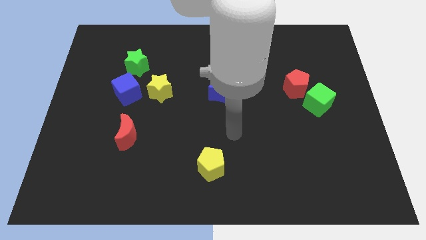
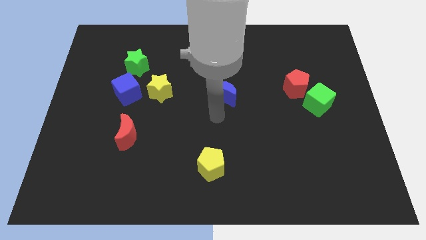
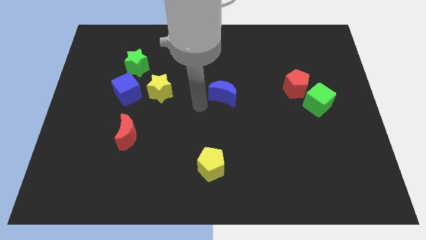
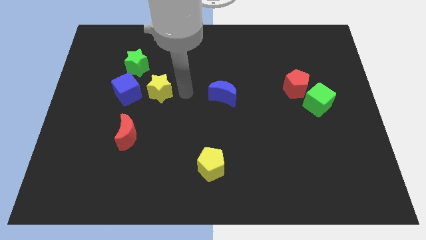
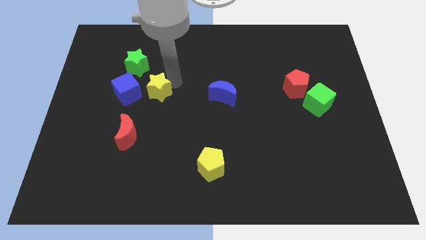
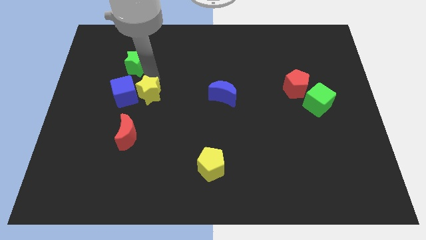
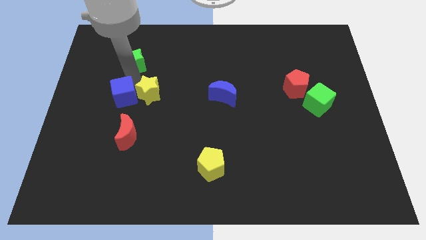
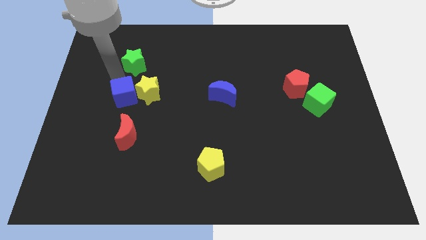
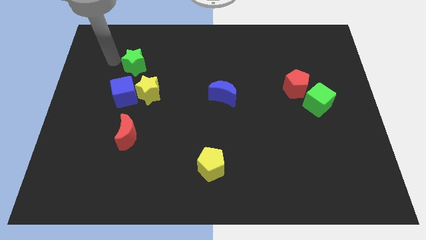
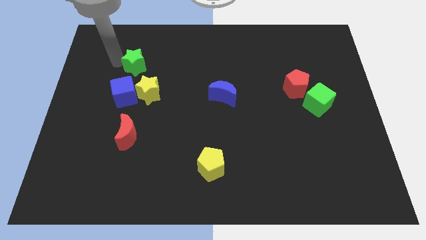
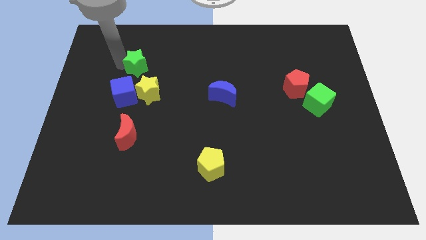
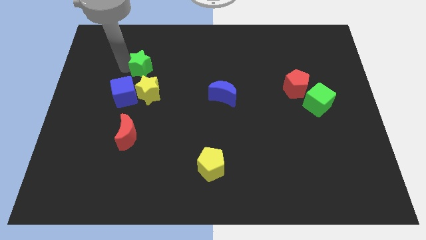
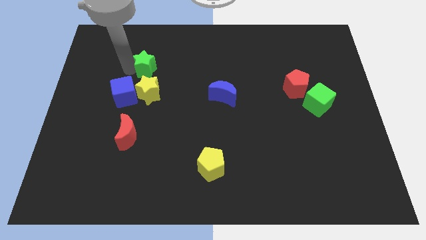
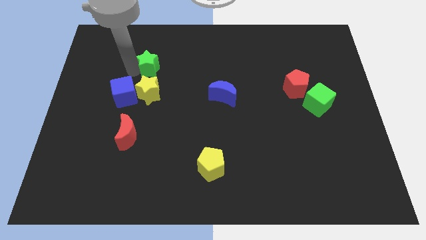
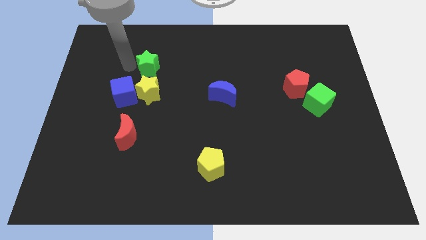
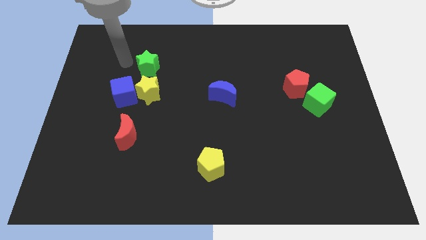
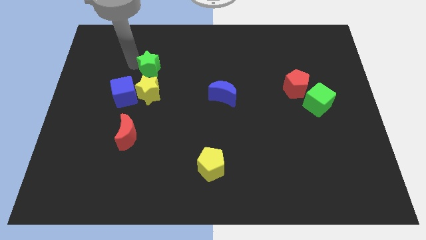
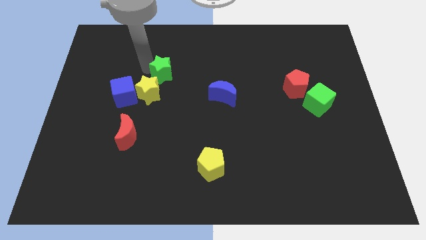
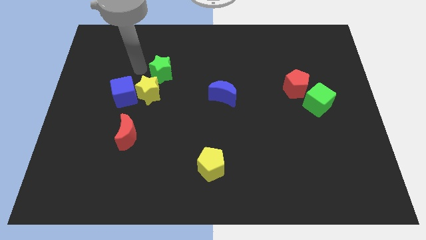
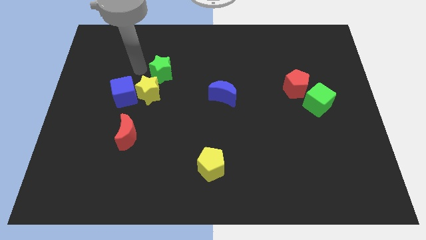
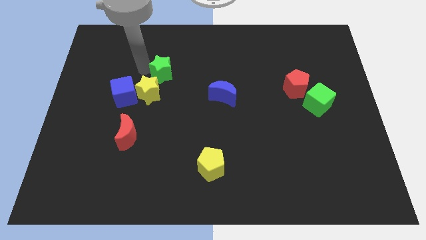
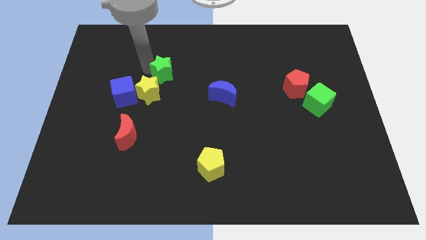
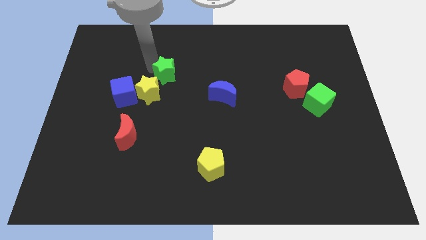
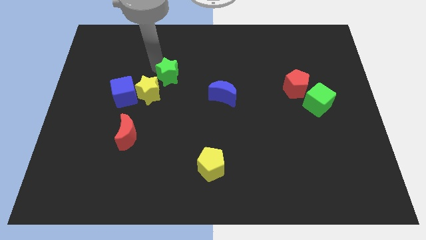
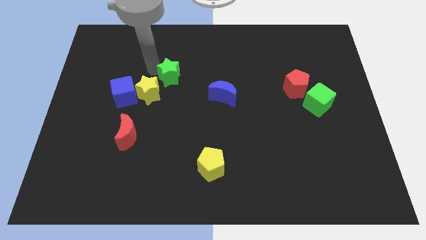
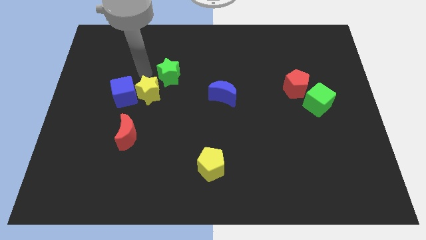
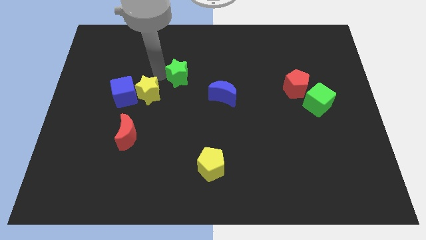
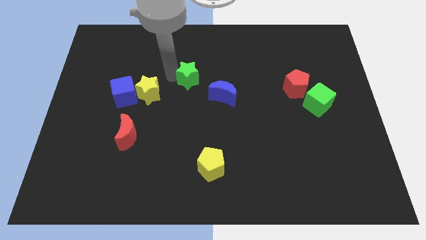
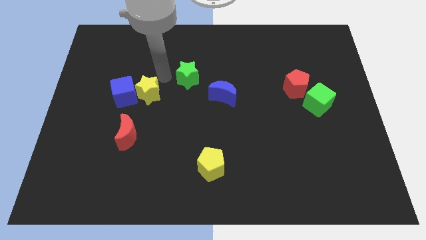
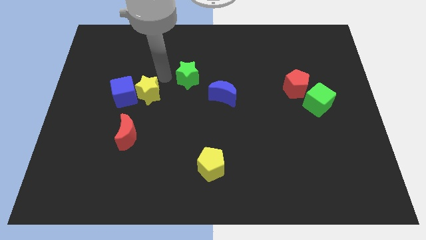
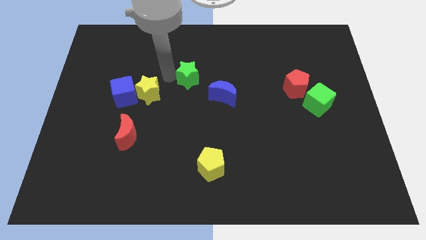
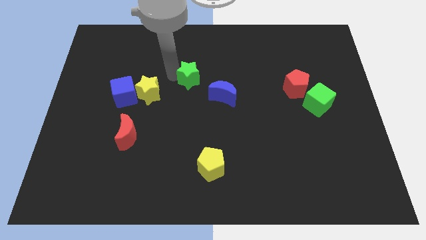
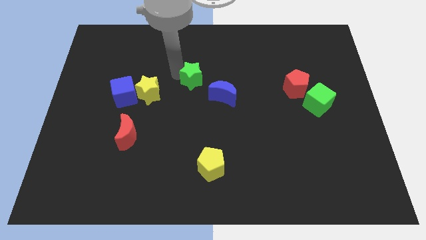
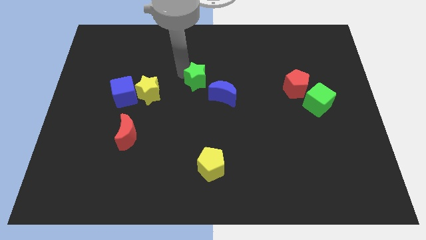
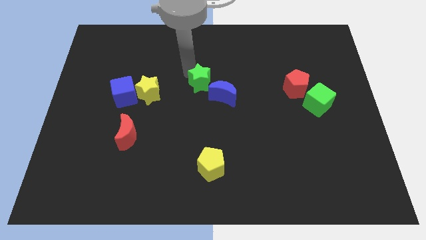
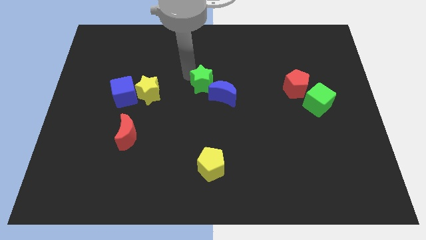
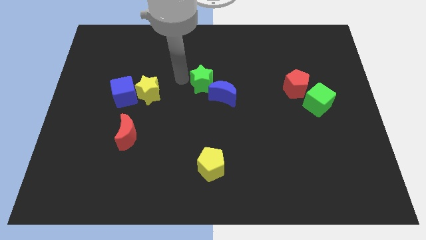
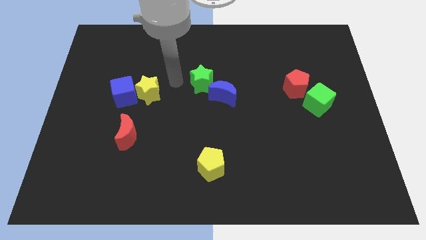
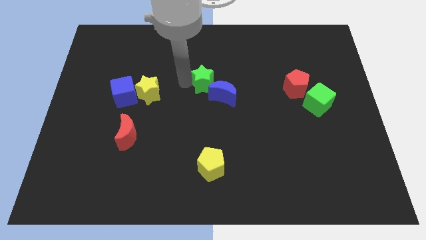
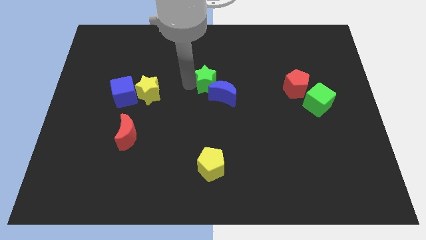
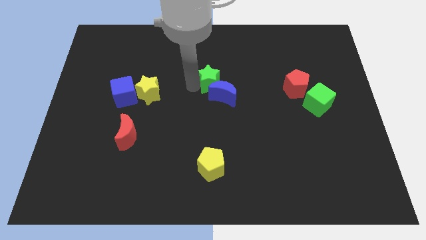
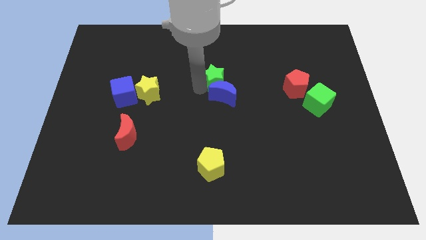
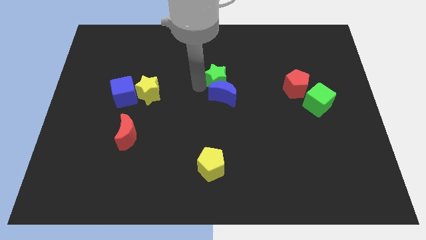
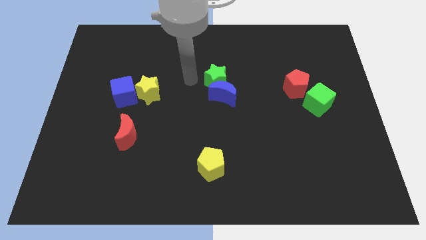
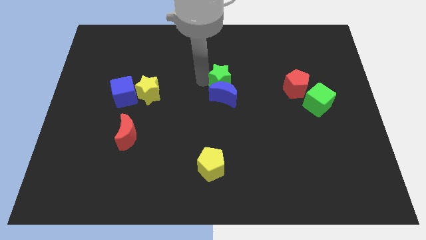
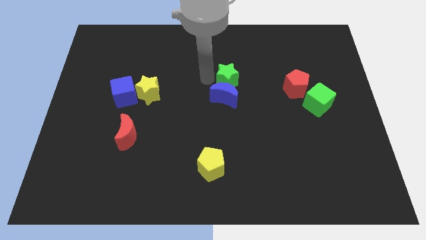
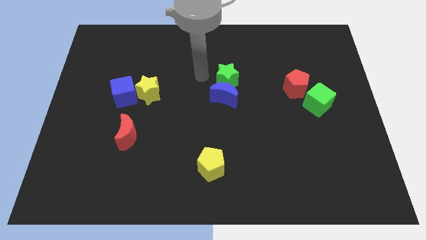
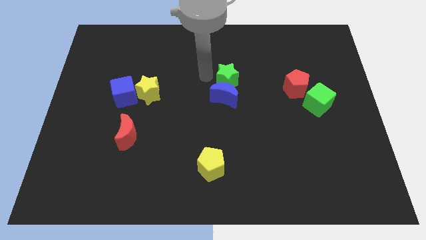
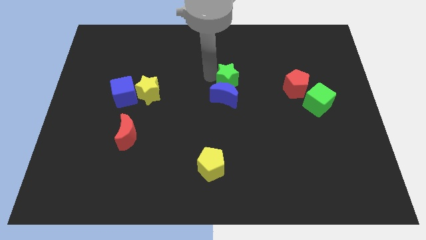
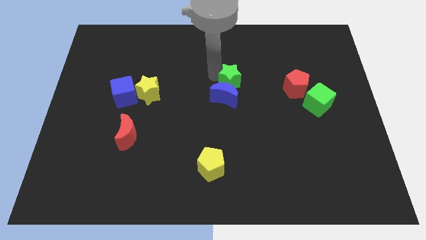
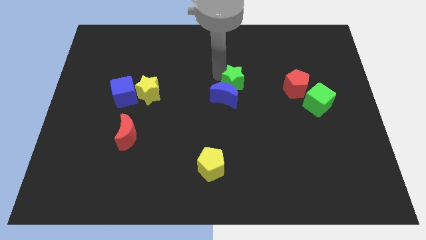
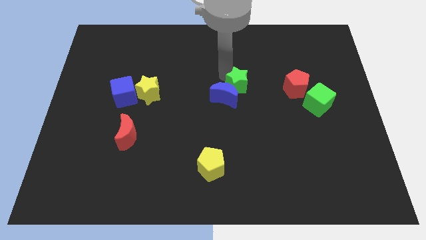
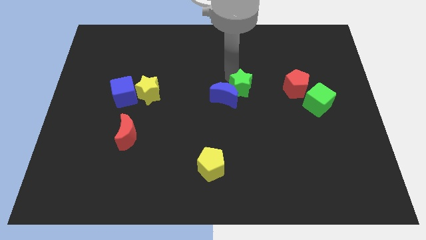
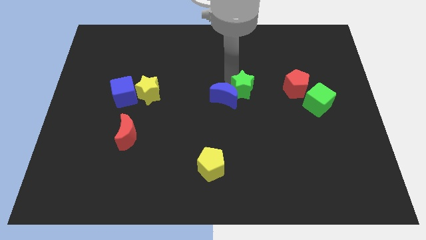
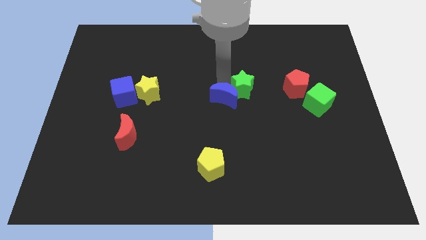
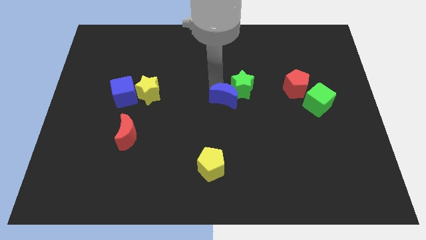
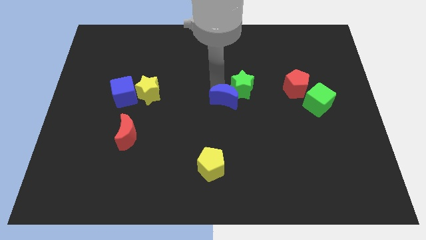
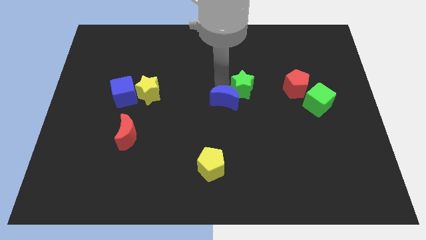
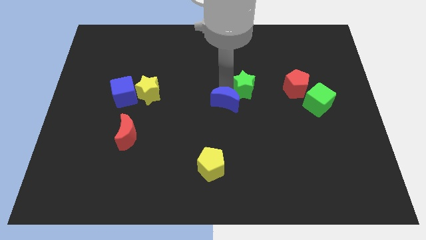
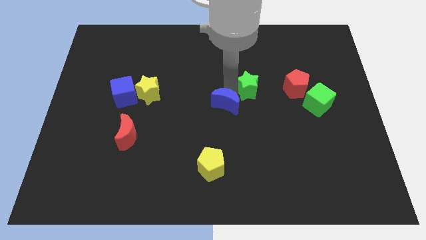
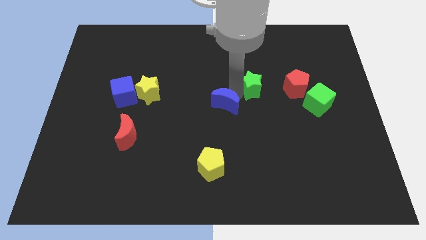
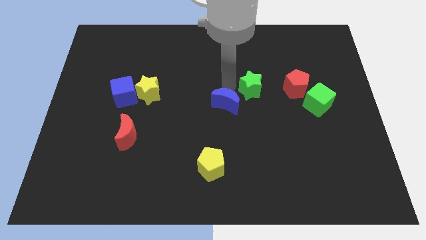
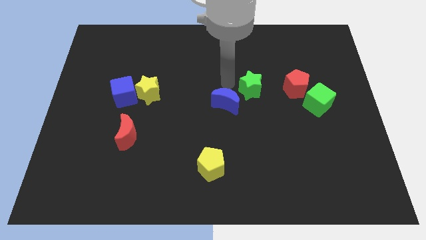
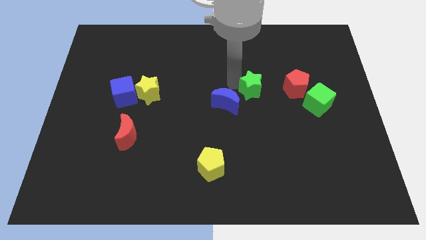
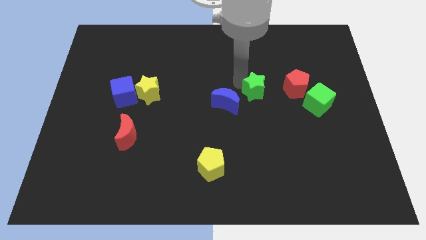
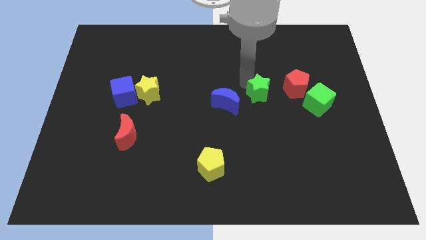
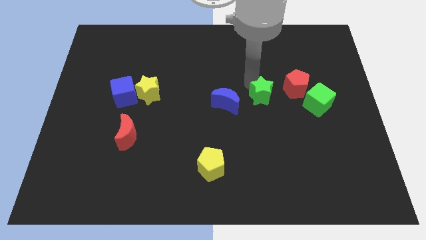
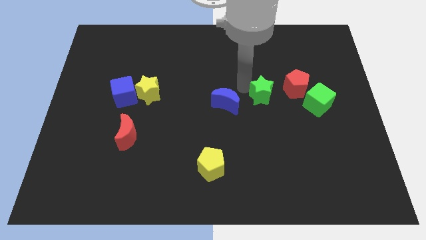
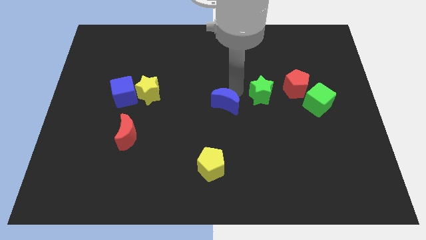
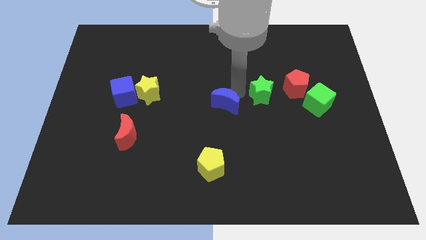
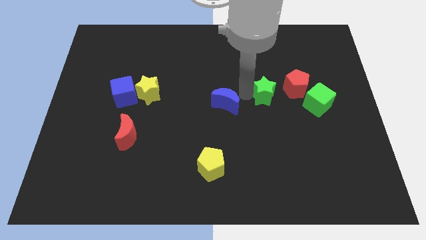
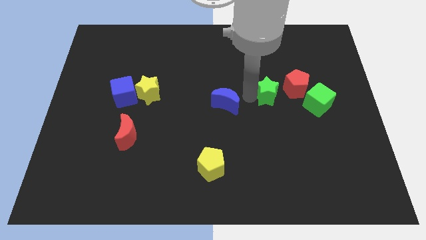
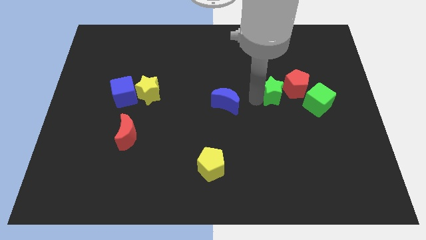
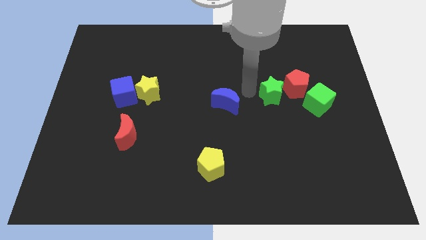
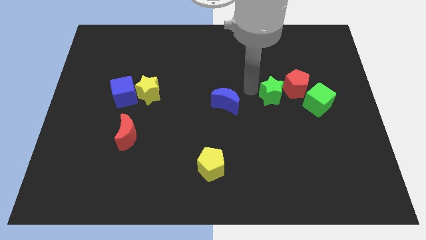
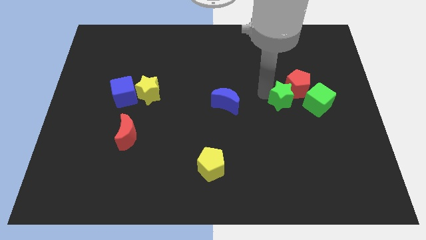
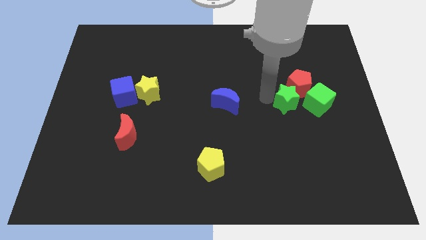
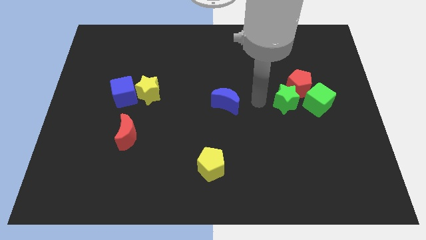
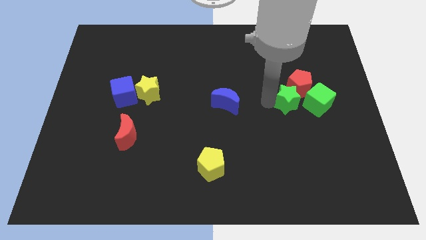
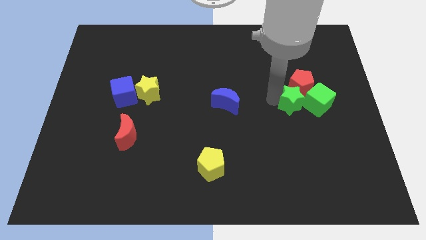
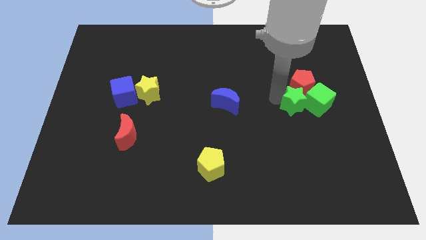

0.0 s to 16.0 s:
put the green star to the green cube
